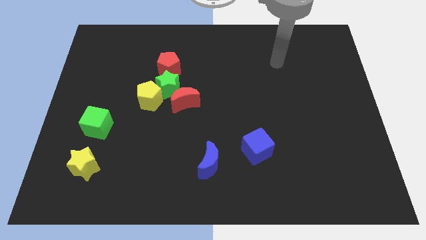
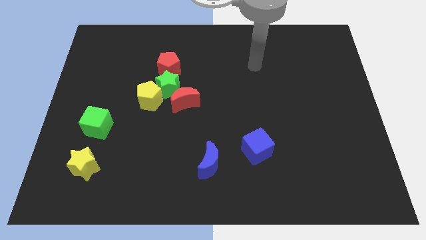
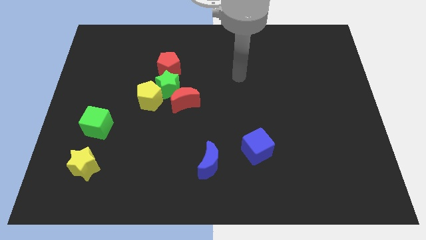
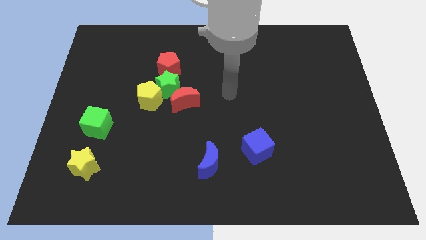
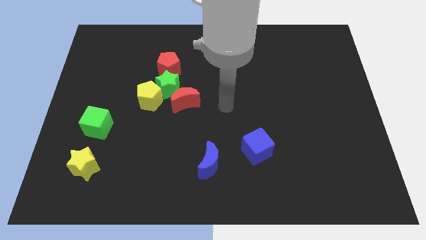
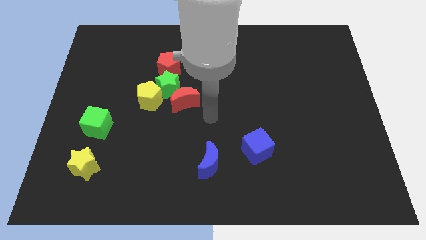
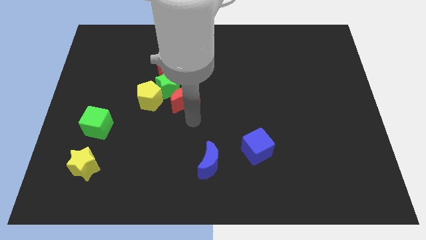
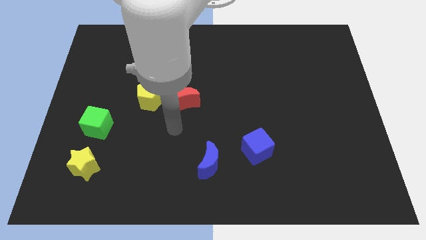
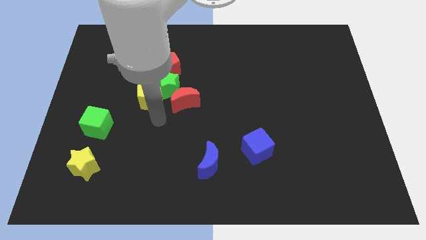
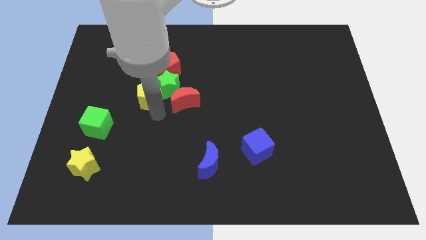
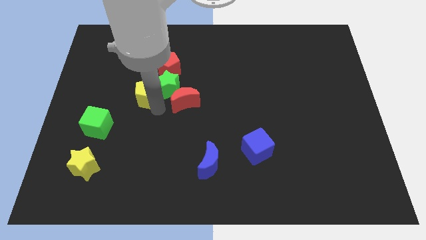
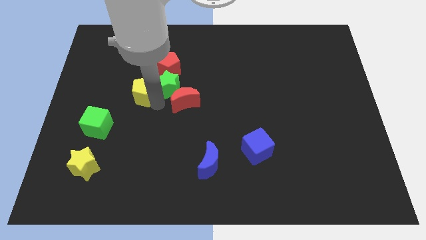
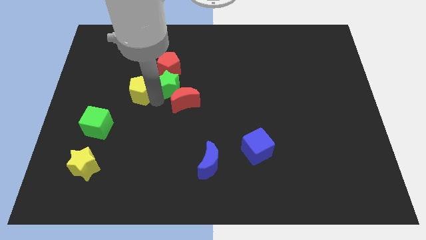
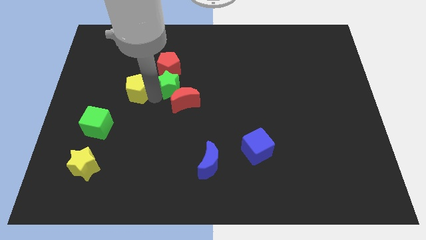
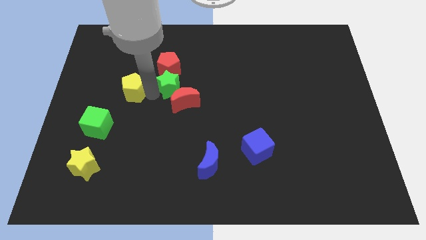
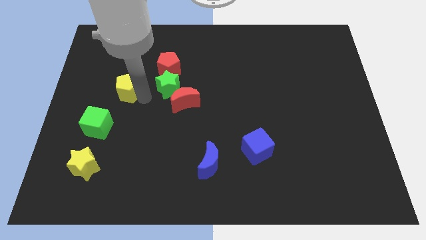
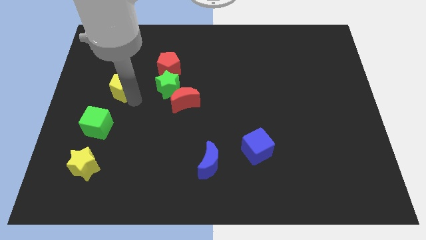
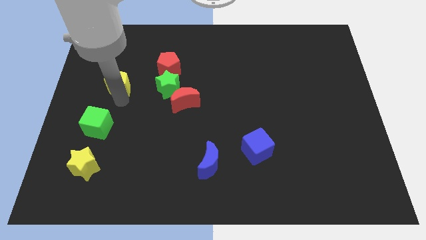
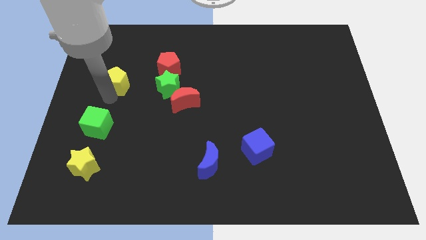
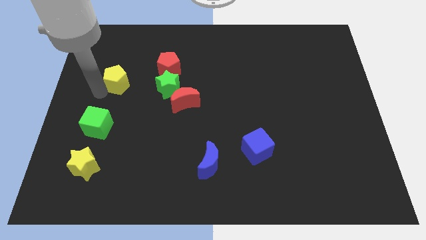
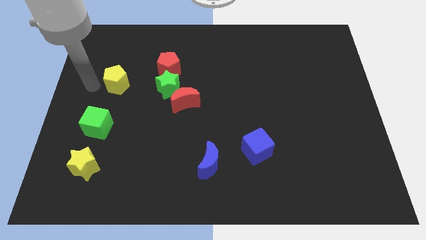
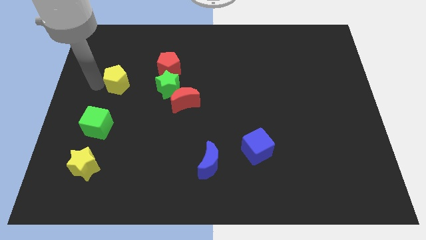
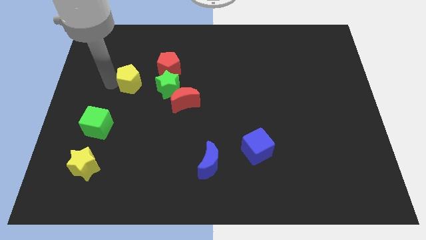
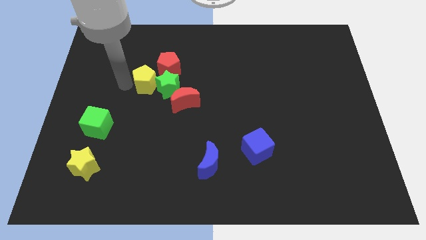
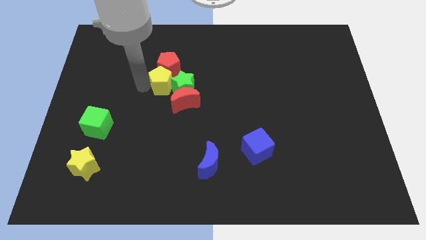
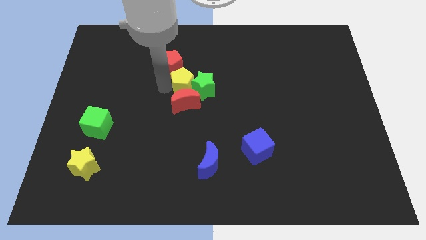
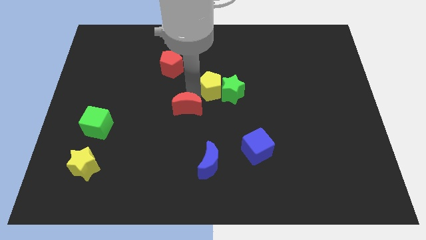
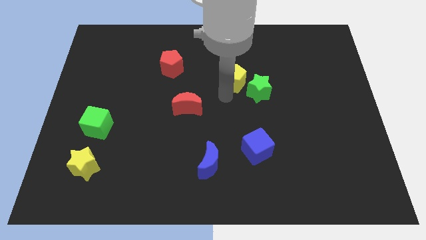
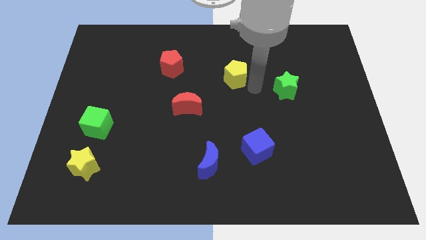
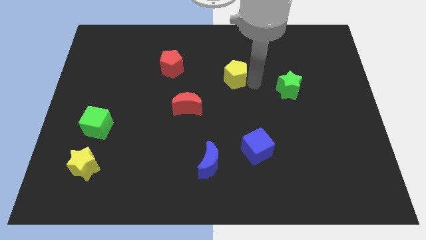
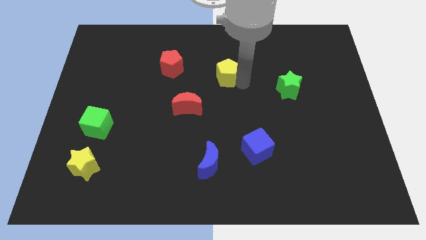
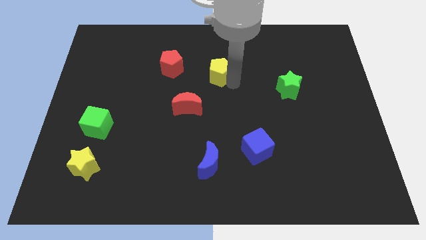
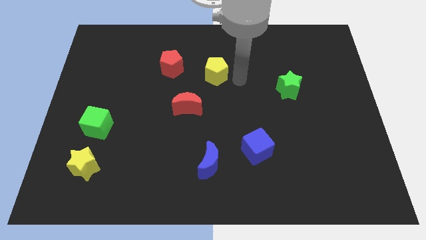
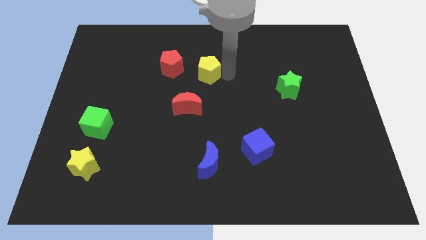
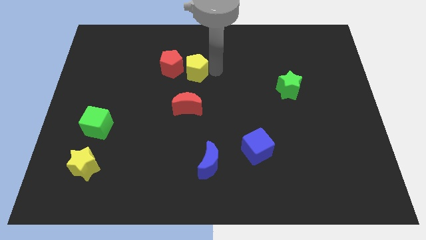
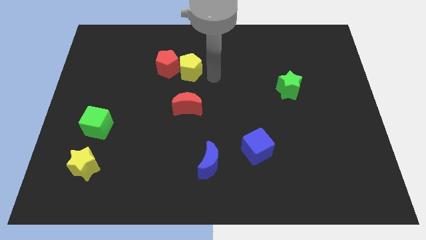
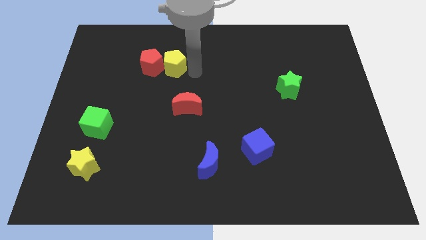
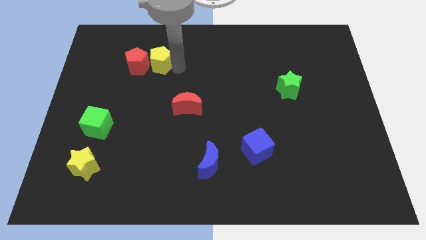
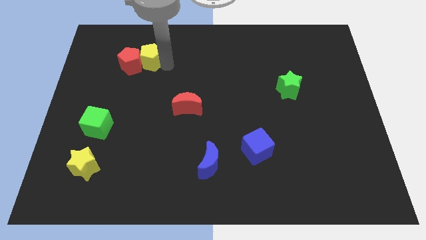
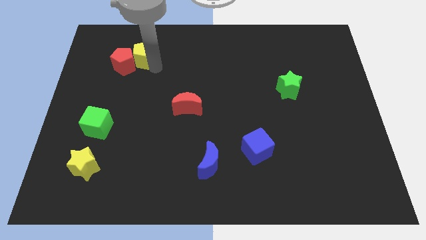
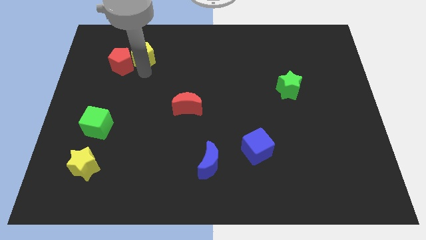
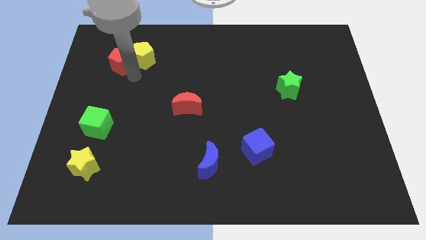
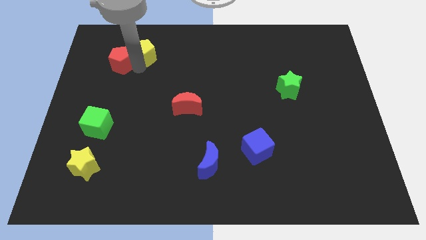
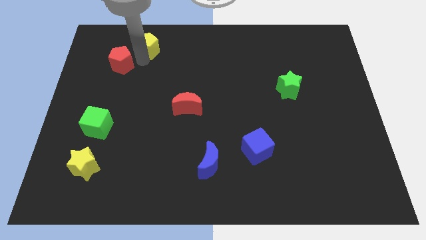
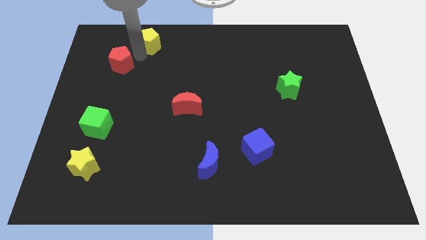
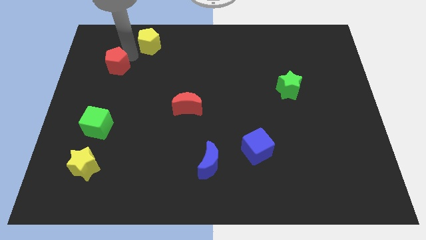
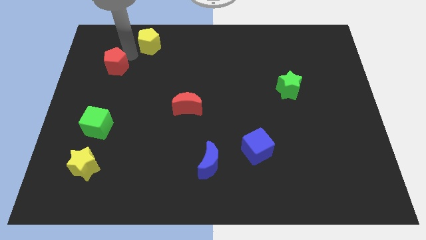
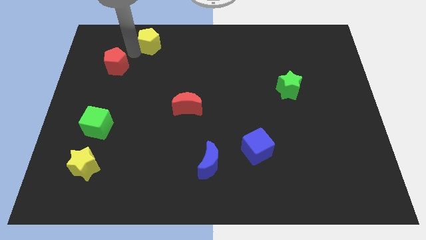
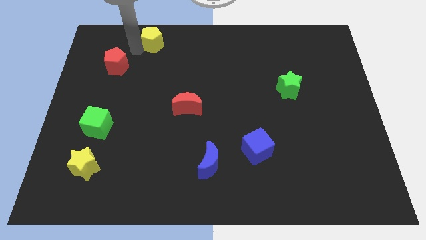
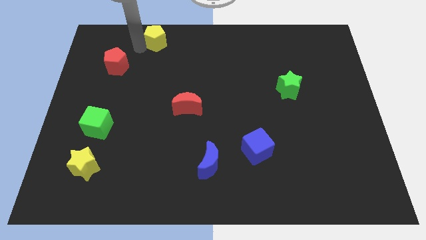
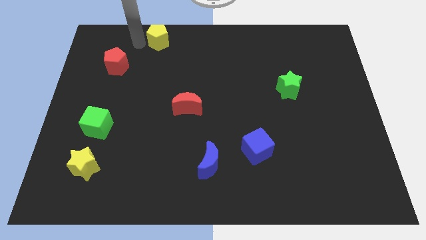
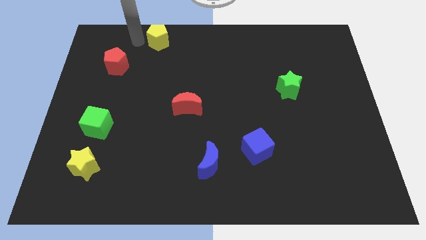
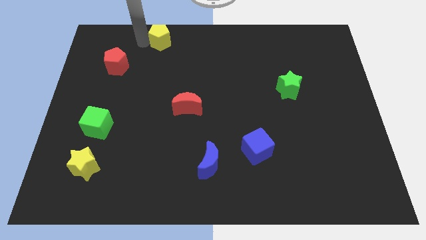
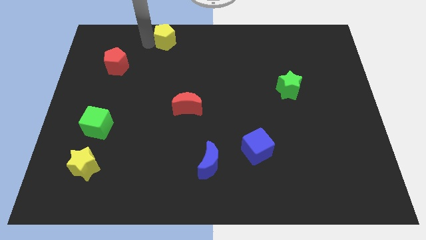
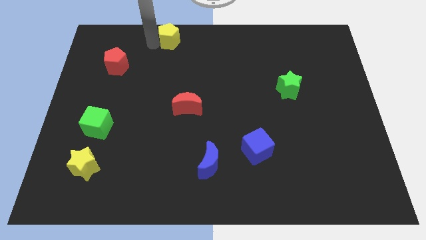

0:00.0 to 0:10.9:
push the yellow pentagon to the top

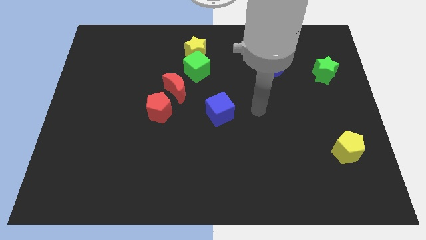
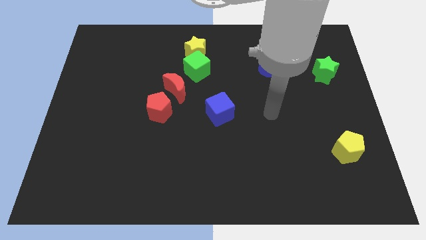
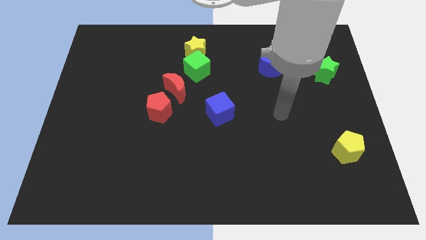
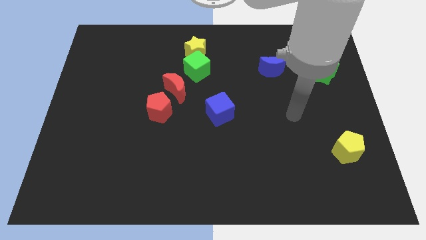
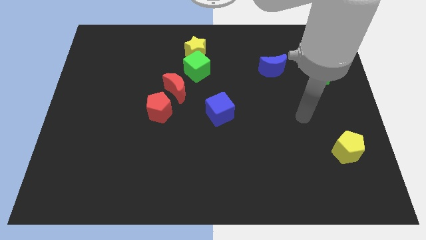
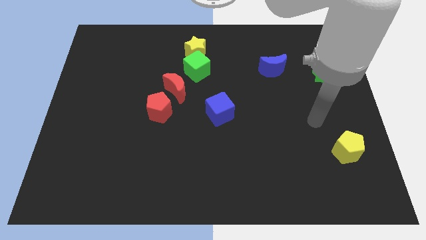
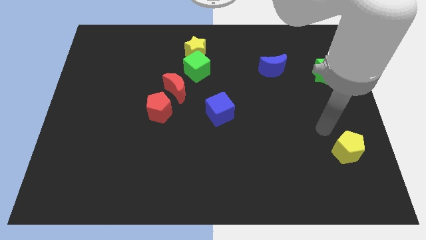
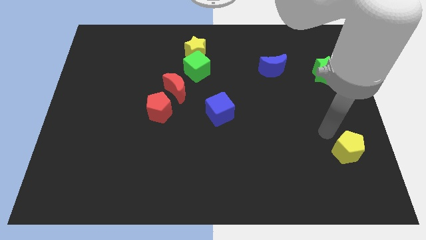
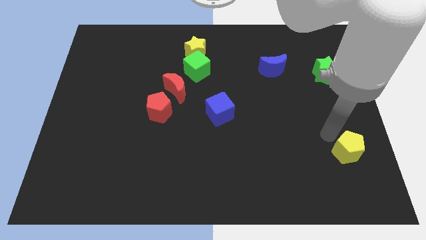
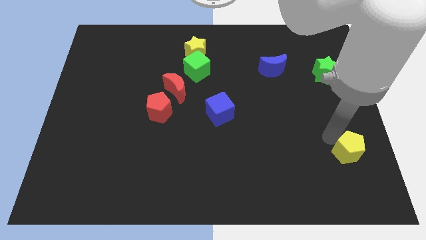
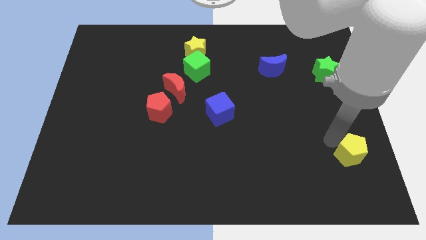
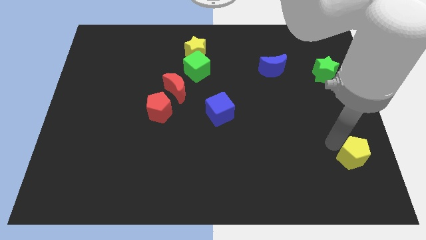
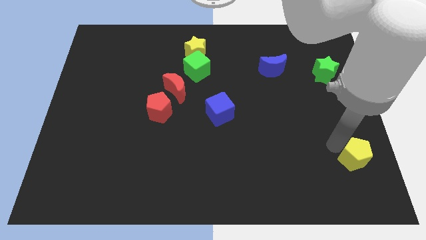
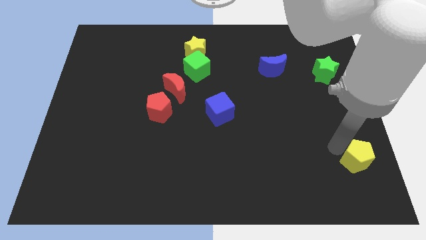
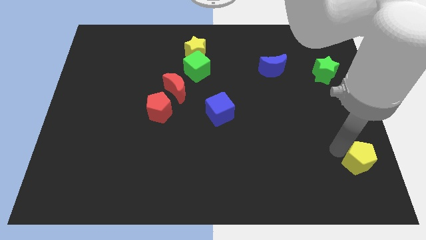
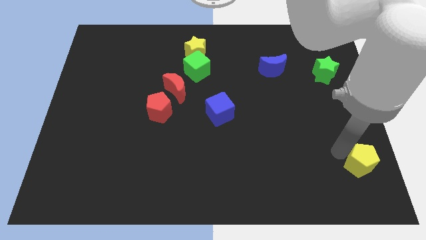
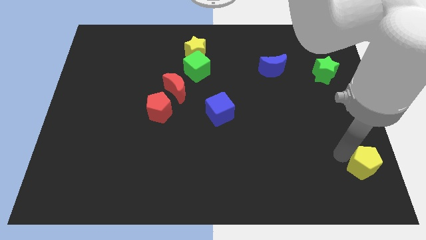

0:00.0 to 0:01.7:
move the yellow pentagon to the bottom right
